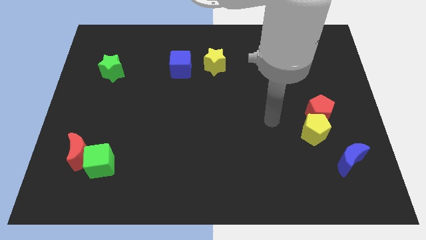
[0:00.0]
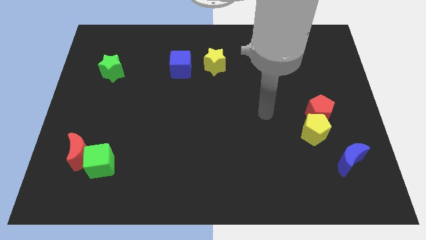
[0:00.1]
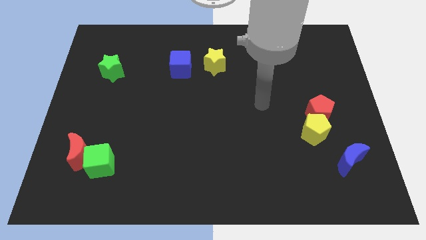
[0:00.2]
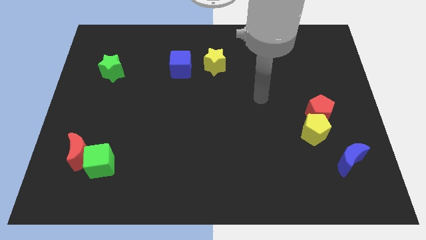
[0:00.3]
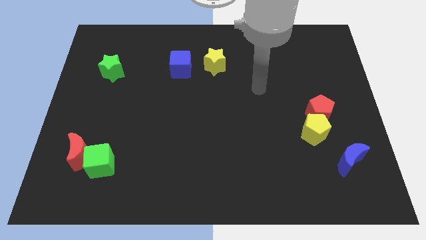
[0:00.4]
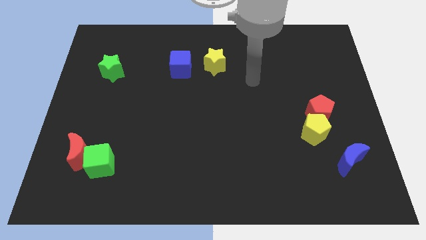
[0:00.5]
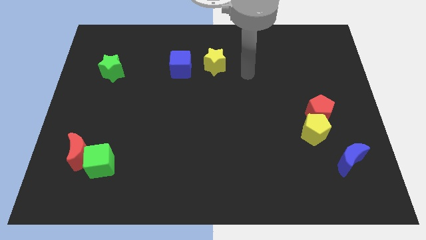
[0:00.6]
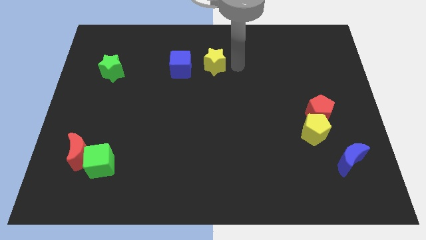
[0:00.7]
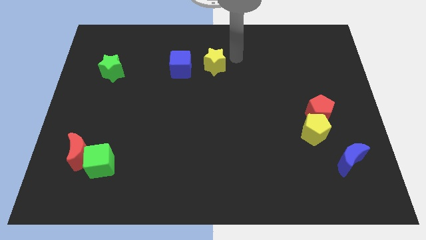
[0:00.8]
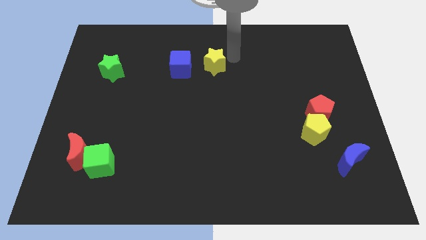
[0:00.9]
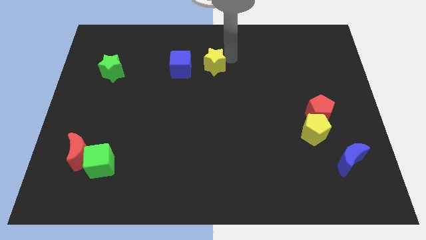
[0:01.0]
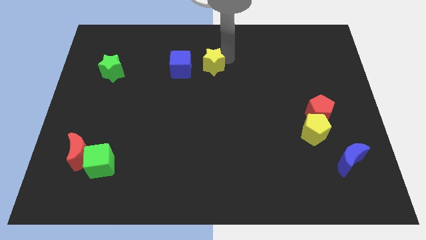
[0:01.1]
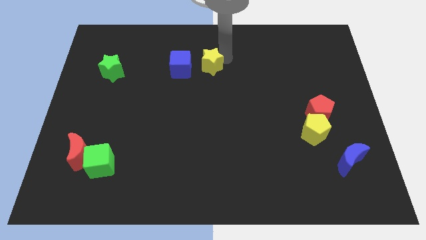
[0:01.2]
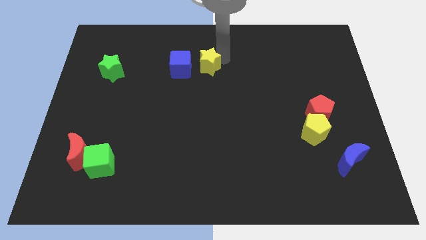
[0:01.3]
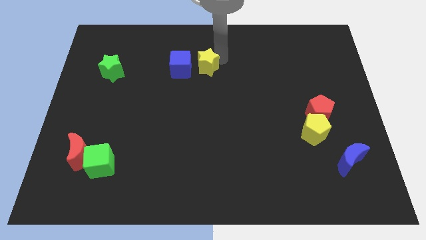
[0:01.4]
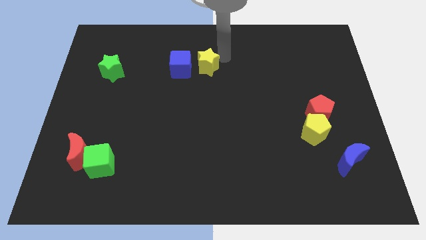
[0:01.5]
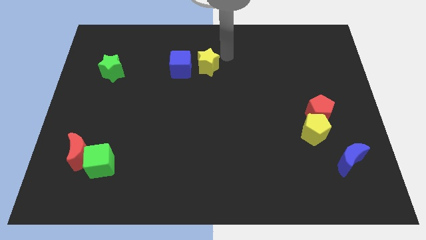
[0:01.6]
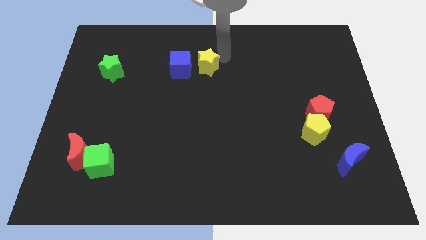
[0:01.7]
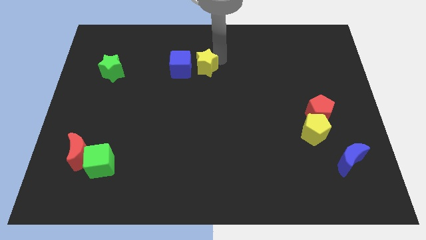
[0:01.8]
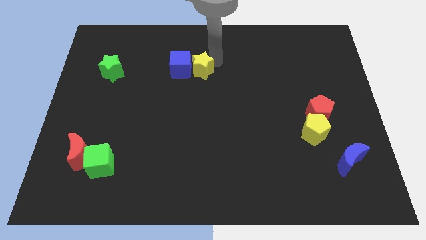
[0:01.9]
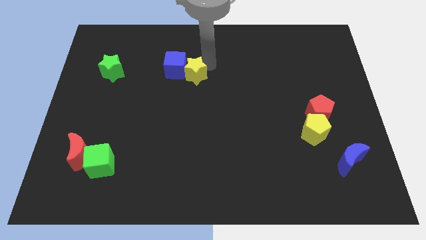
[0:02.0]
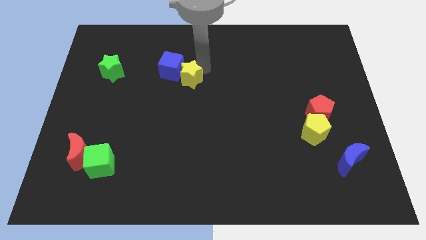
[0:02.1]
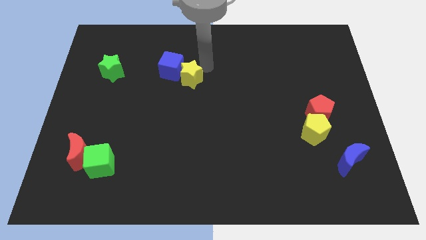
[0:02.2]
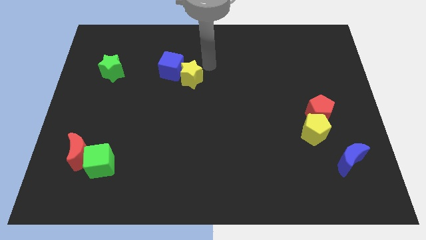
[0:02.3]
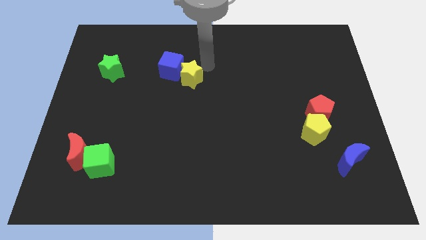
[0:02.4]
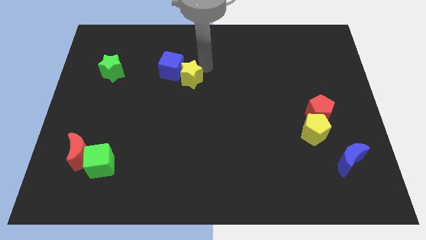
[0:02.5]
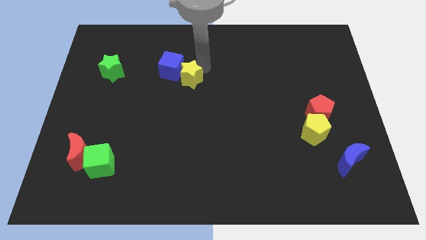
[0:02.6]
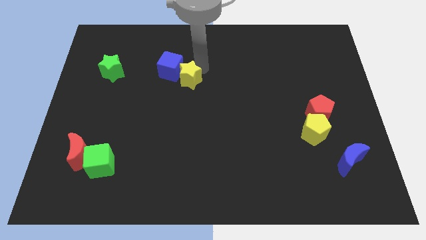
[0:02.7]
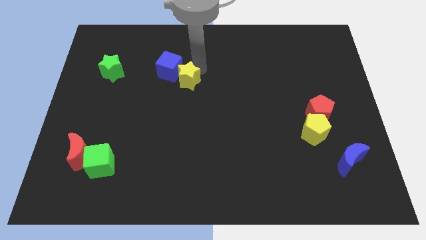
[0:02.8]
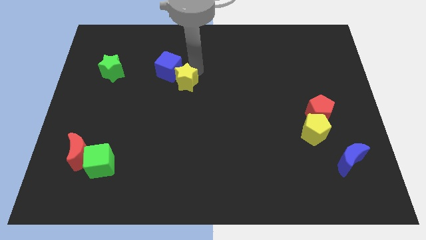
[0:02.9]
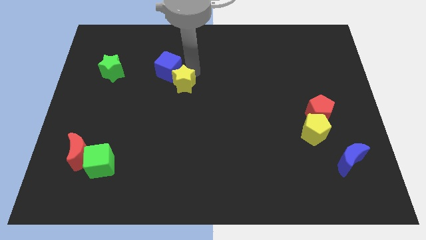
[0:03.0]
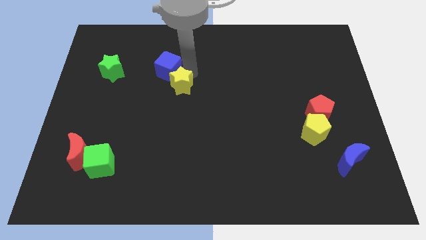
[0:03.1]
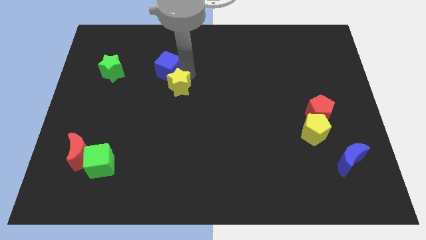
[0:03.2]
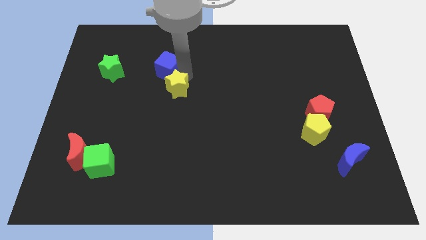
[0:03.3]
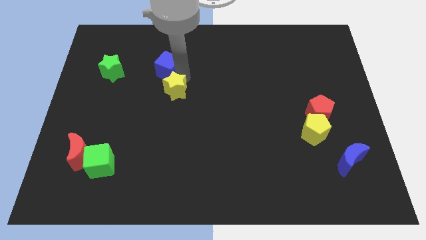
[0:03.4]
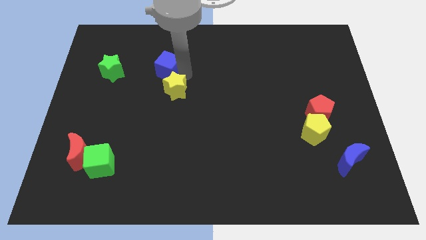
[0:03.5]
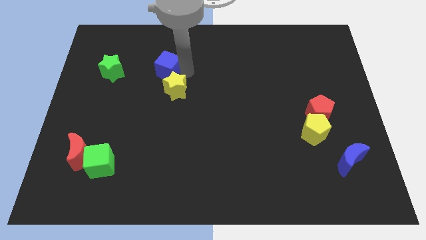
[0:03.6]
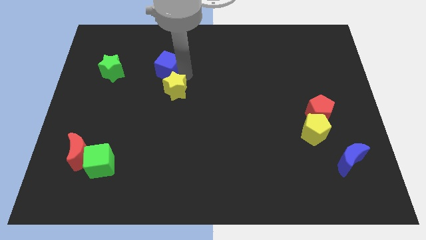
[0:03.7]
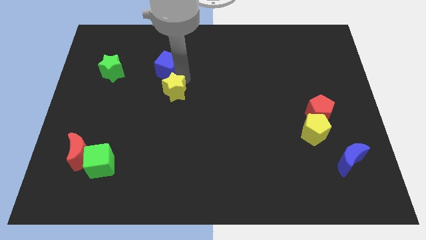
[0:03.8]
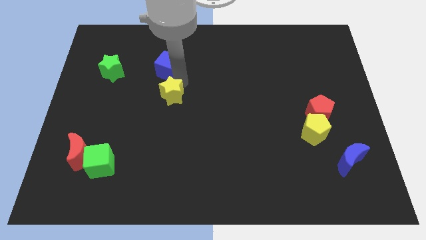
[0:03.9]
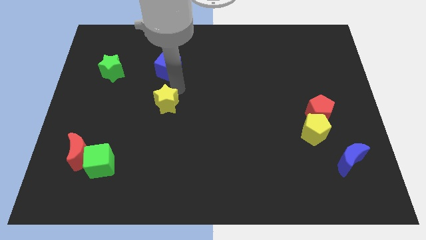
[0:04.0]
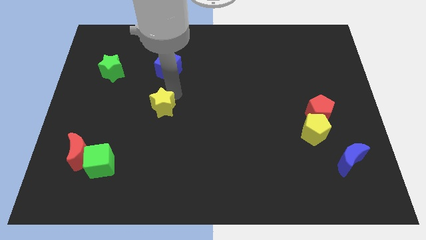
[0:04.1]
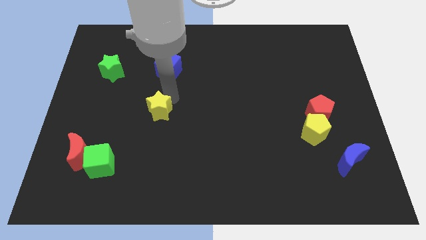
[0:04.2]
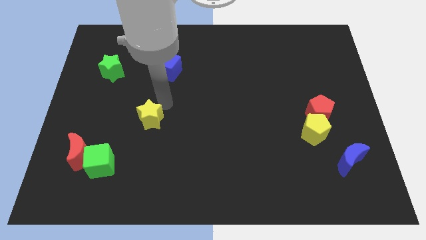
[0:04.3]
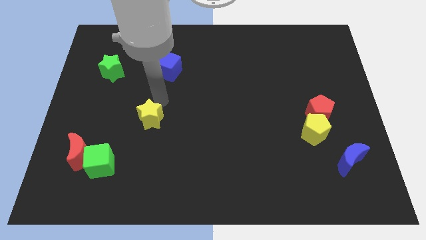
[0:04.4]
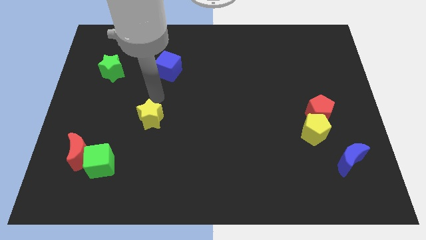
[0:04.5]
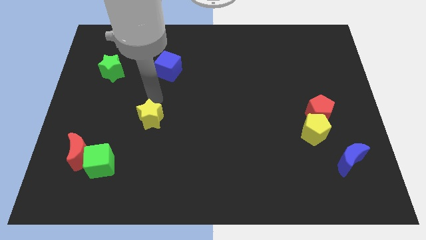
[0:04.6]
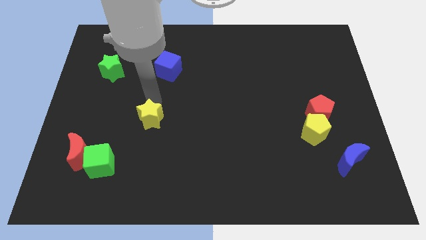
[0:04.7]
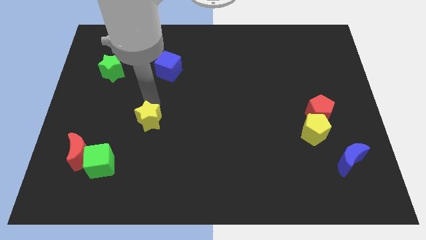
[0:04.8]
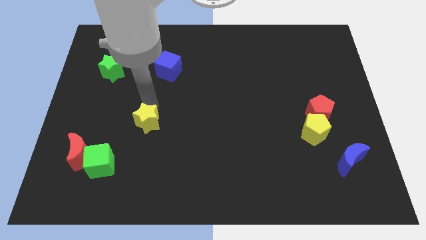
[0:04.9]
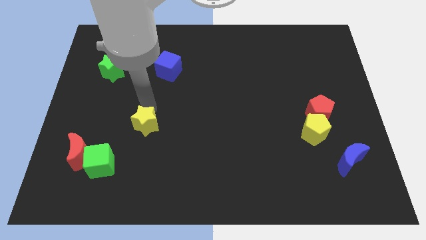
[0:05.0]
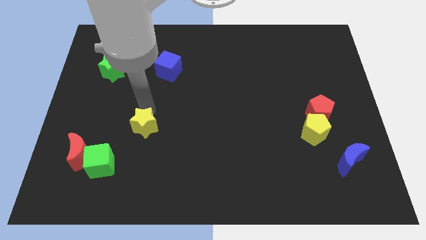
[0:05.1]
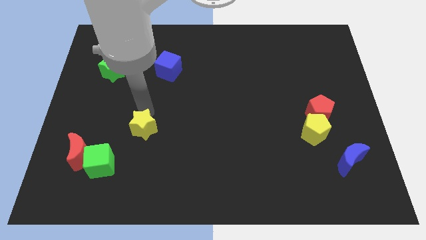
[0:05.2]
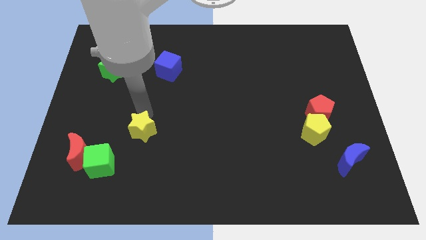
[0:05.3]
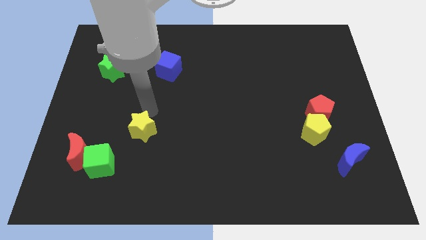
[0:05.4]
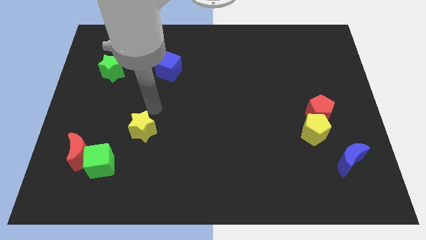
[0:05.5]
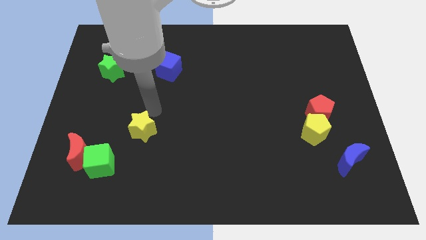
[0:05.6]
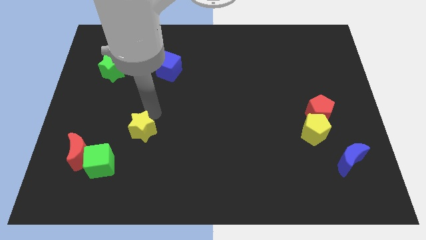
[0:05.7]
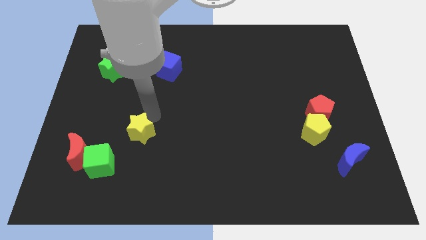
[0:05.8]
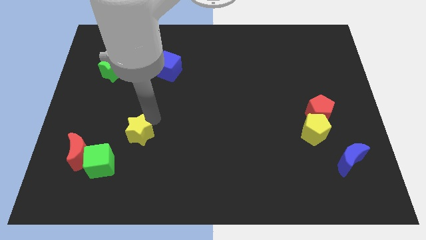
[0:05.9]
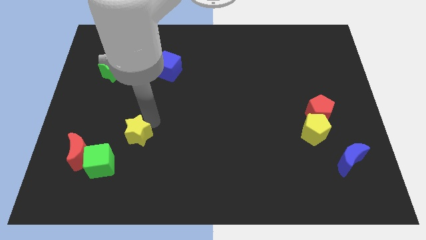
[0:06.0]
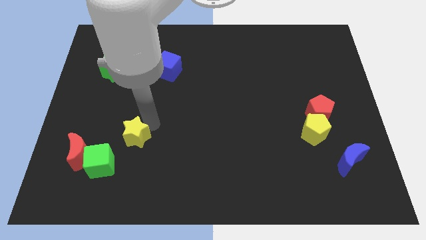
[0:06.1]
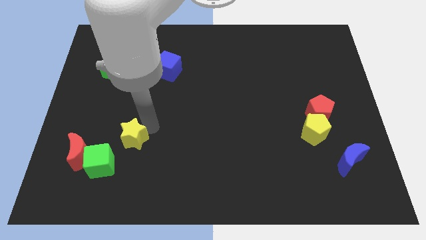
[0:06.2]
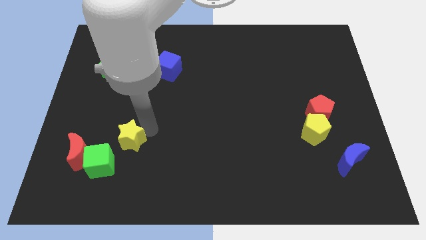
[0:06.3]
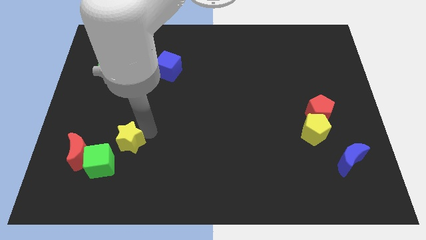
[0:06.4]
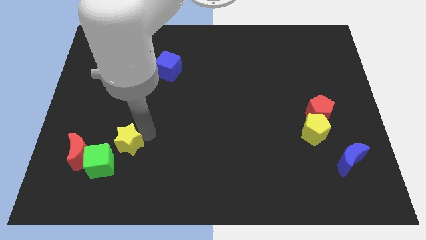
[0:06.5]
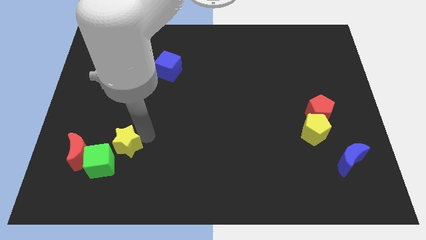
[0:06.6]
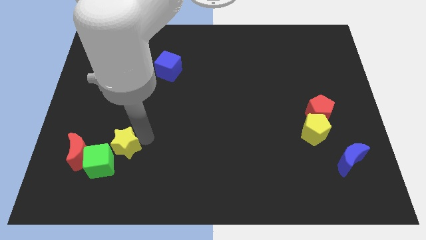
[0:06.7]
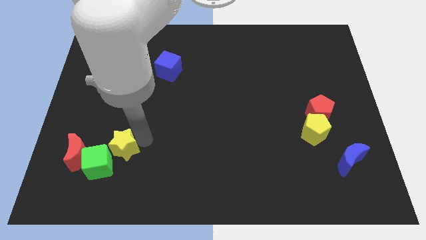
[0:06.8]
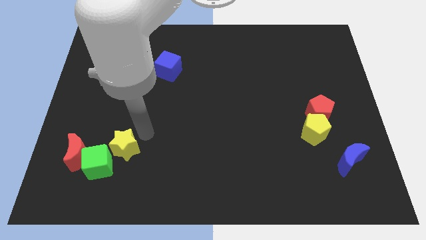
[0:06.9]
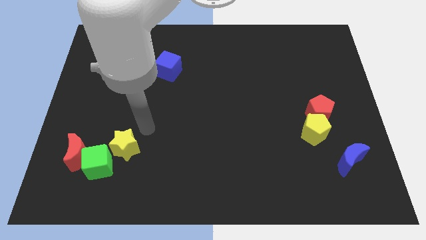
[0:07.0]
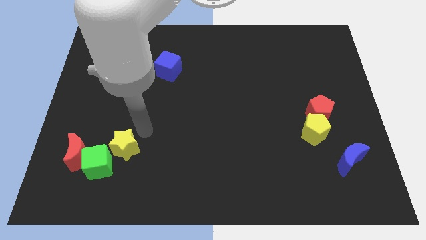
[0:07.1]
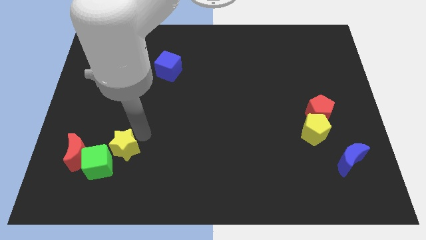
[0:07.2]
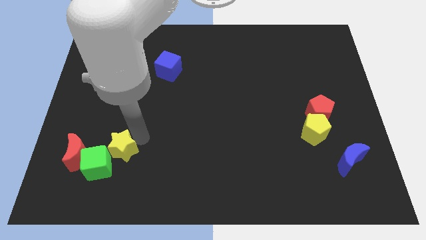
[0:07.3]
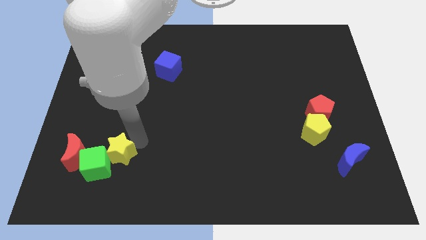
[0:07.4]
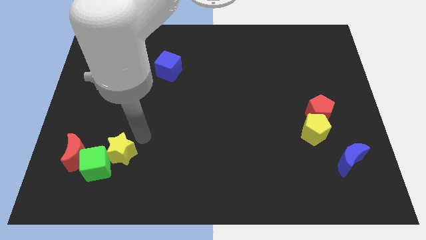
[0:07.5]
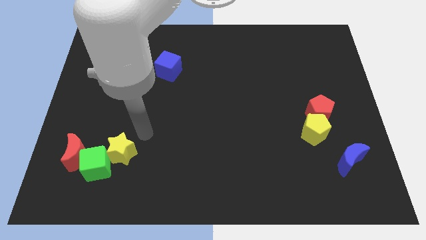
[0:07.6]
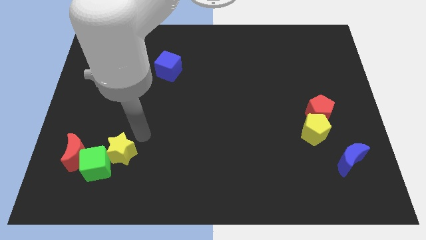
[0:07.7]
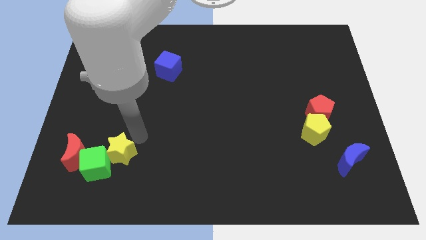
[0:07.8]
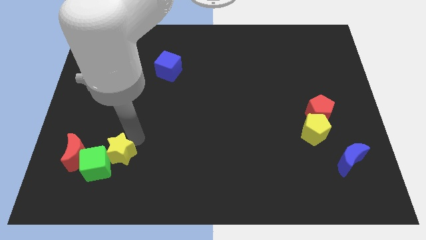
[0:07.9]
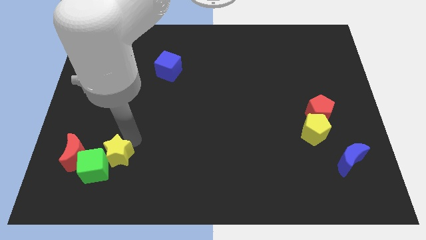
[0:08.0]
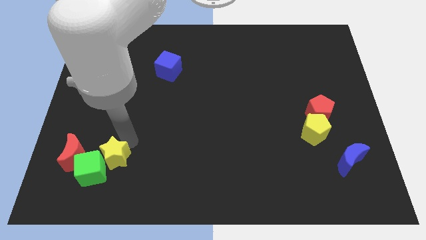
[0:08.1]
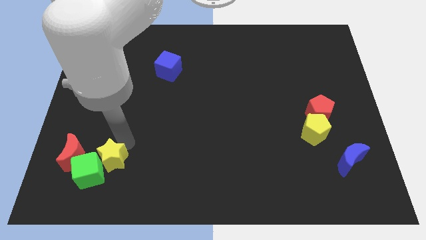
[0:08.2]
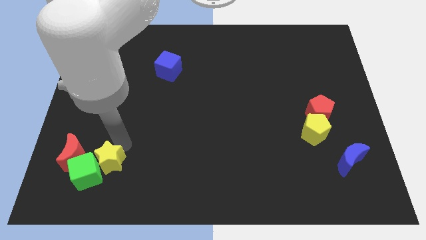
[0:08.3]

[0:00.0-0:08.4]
move the yellow star diagonally down and to the right of the red moon
